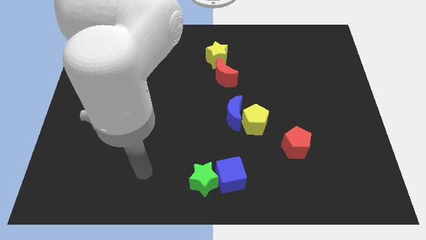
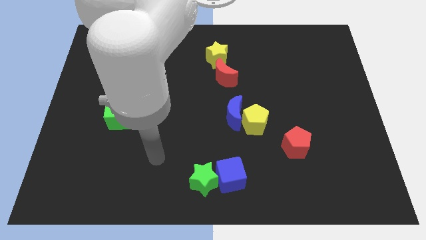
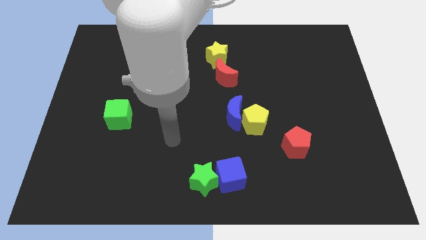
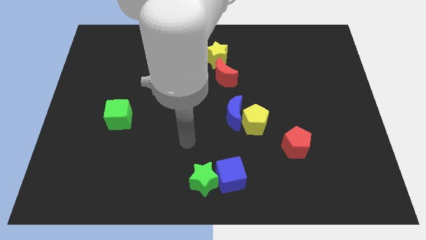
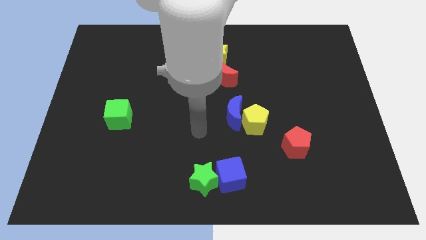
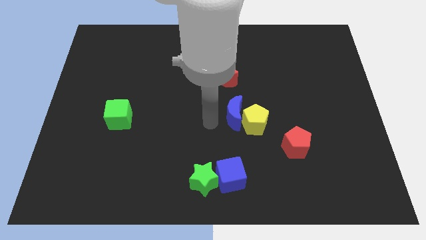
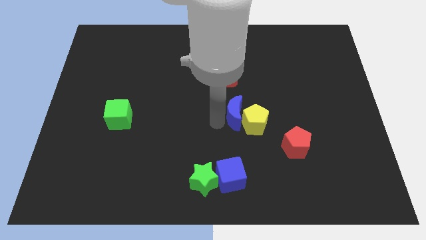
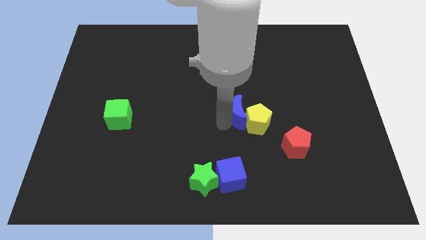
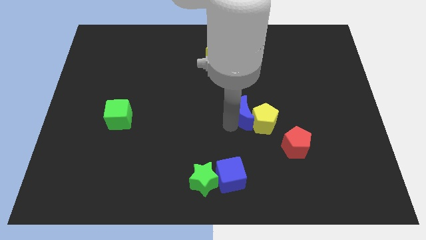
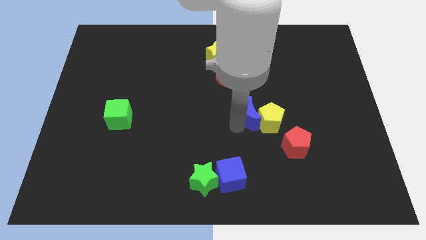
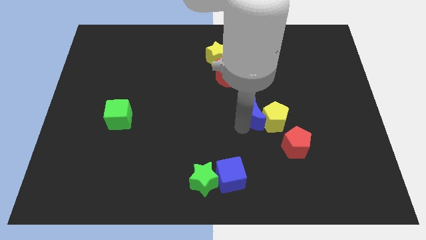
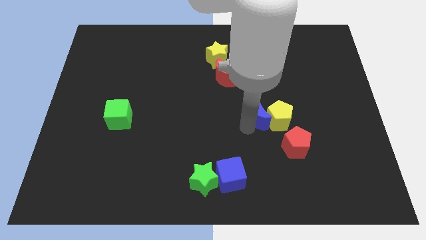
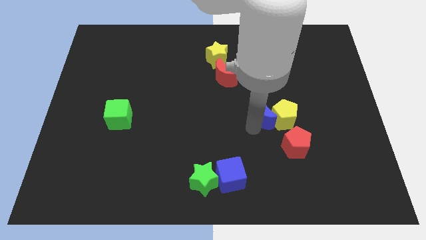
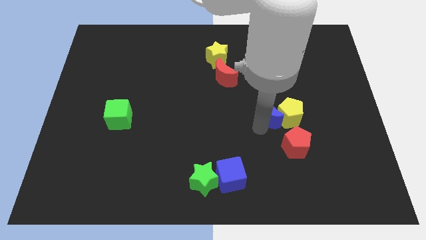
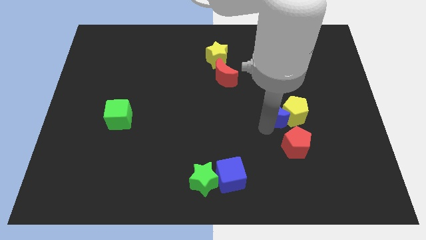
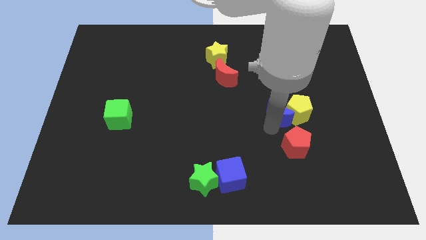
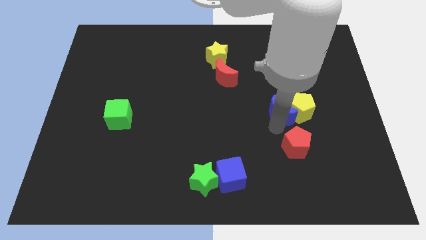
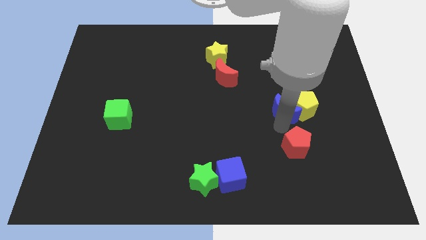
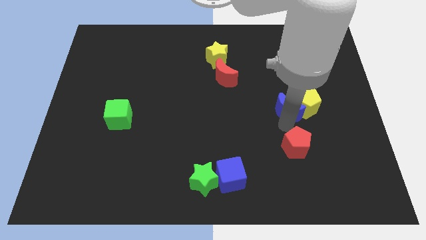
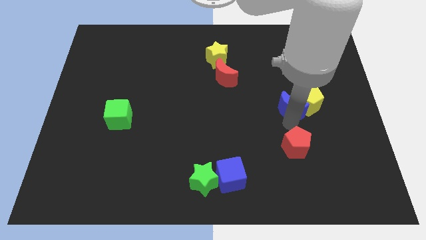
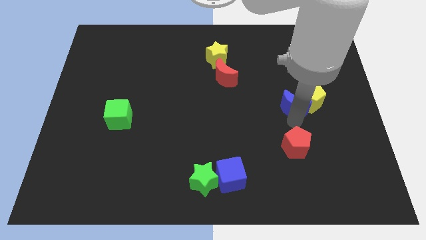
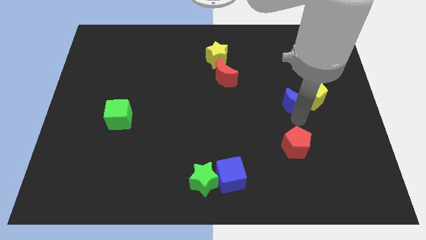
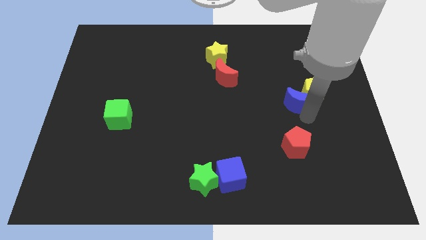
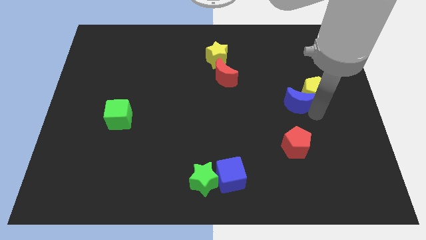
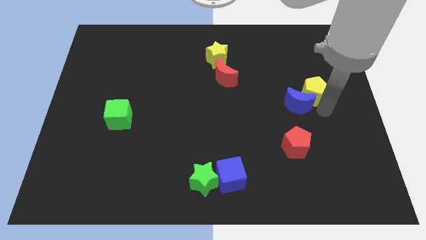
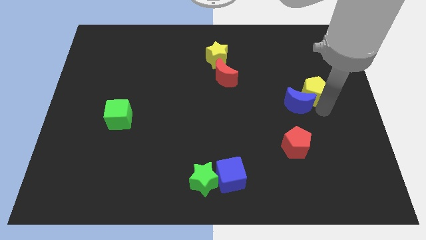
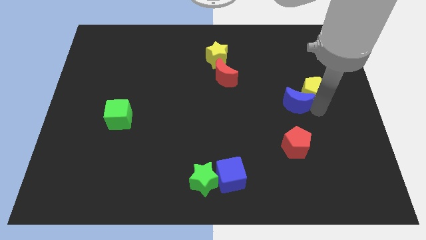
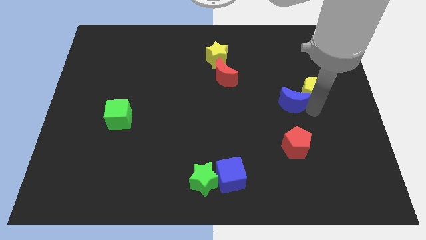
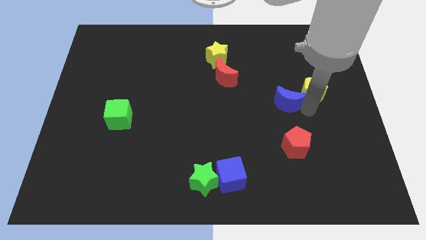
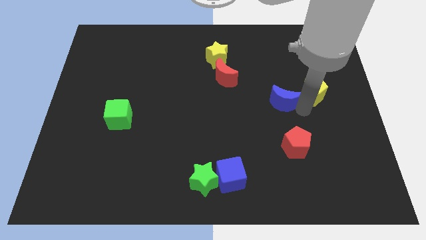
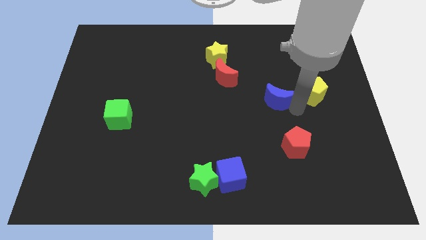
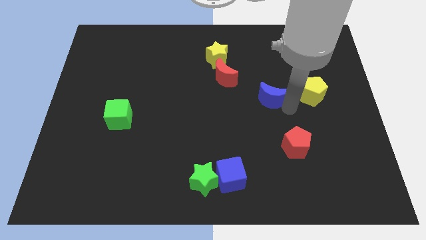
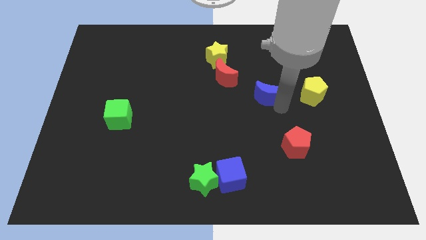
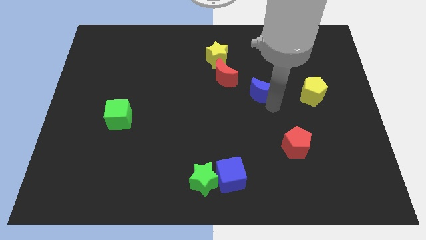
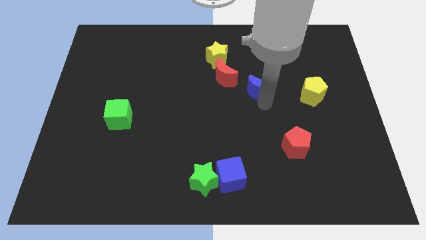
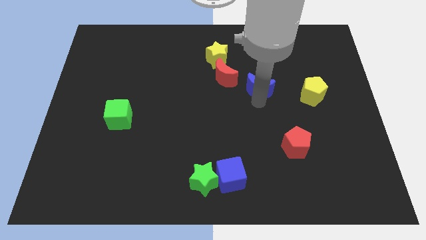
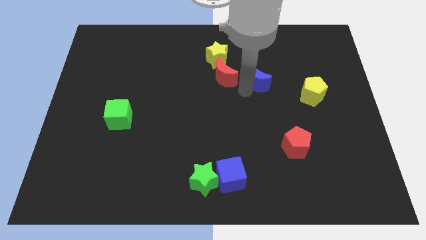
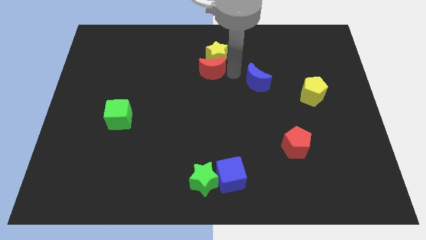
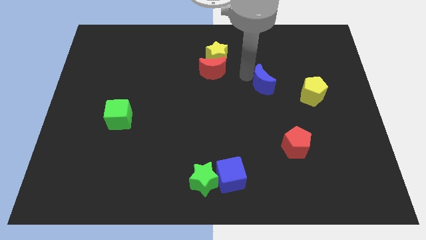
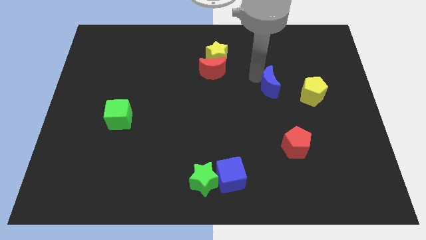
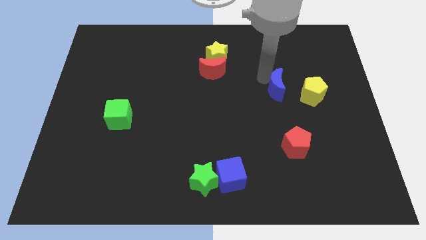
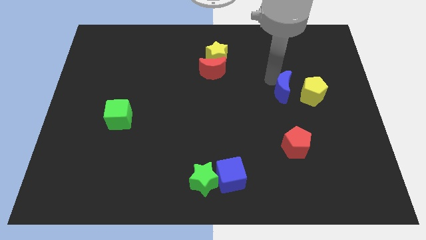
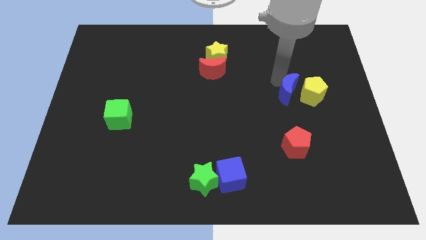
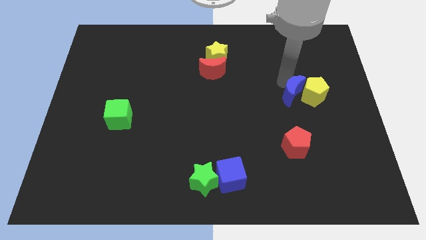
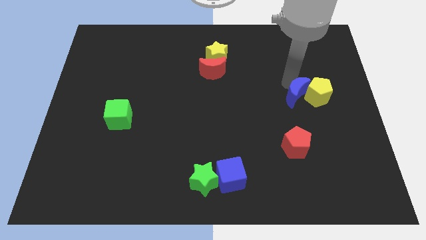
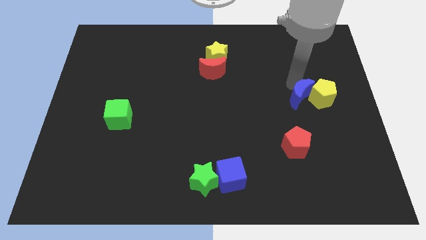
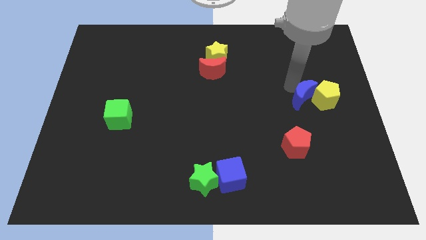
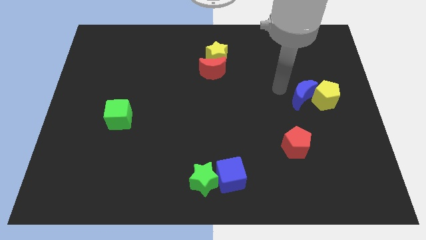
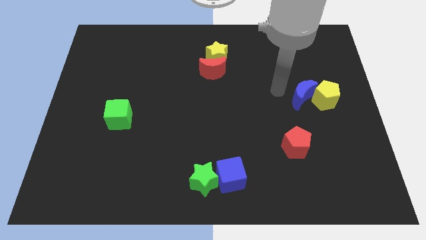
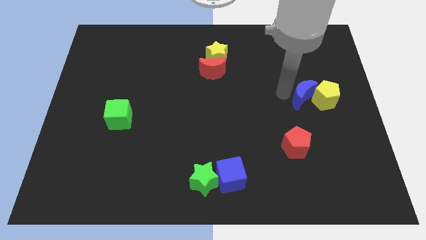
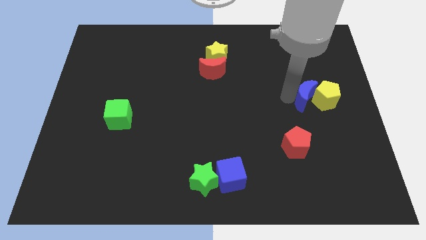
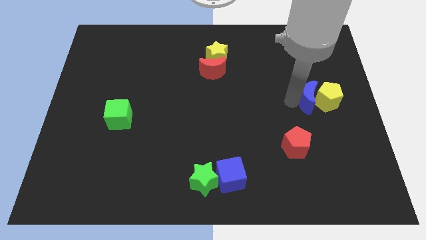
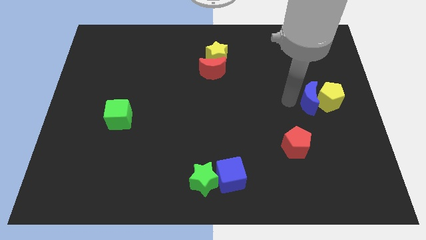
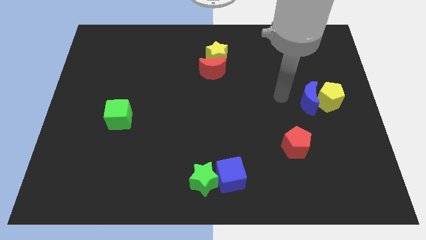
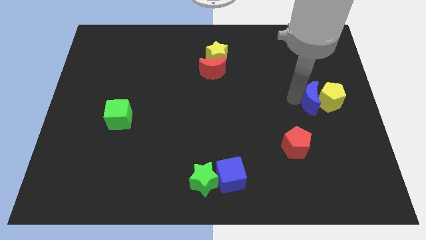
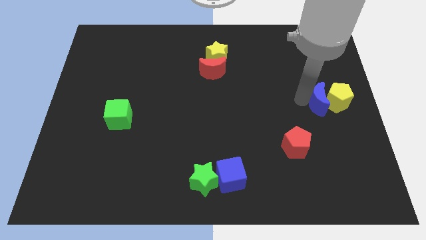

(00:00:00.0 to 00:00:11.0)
slide the blue moon to the right side of the board
